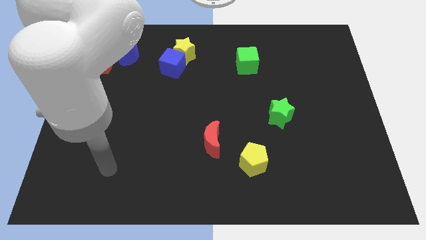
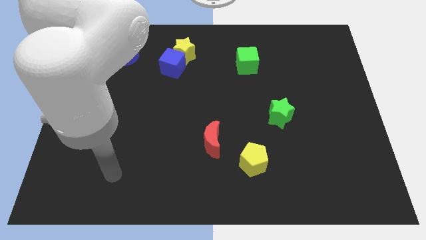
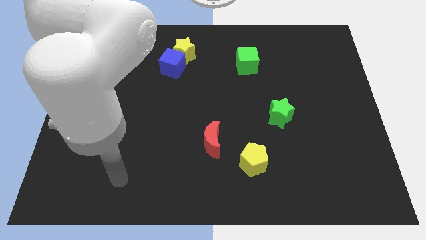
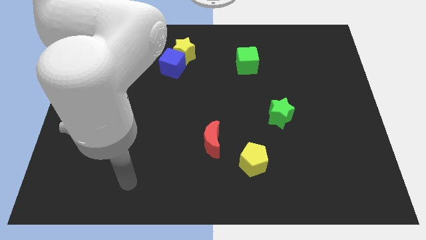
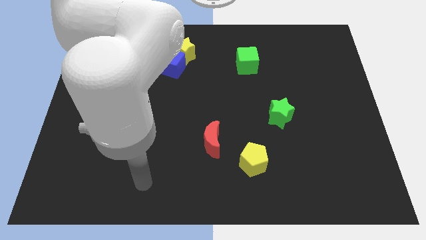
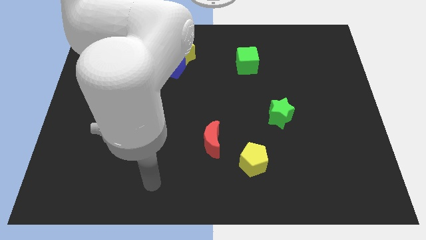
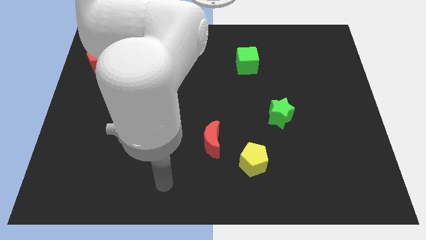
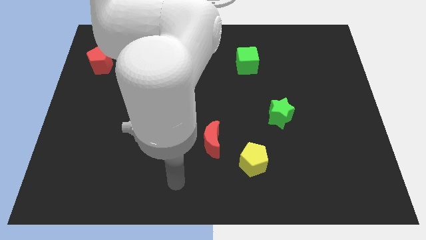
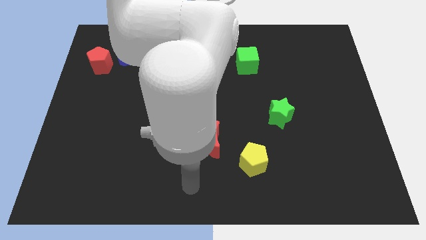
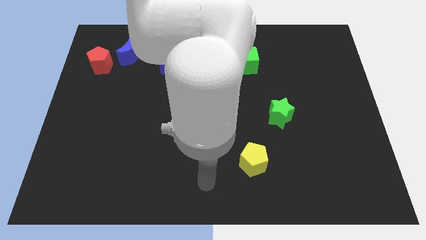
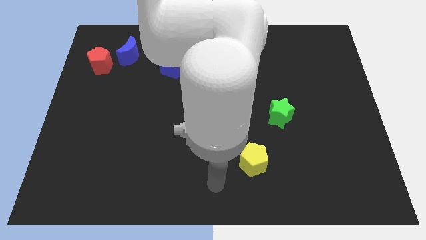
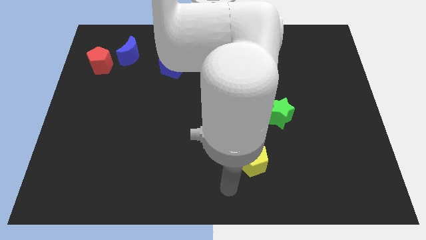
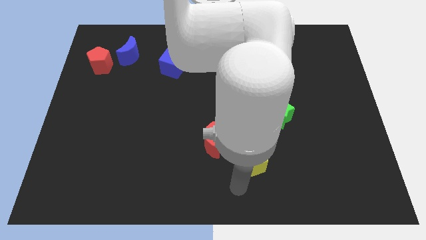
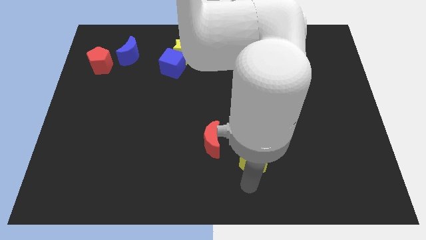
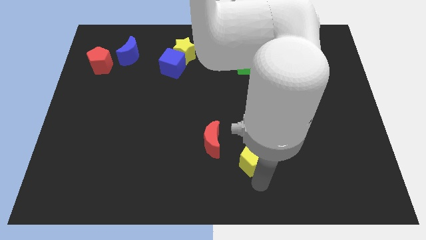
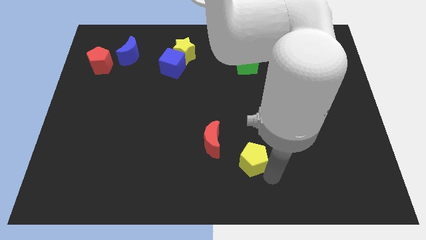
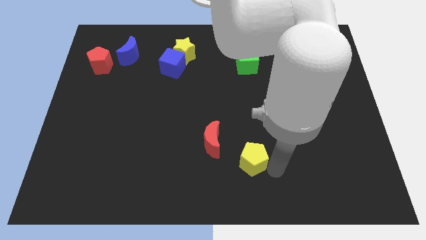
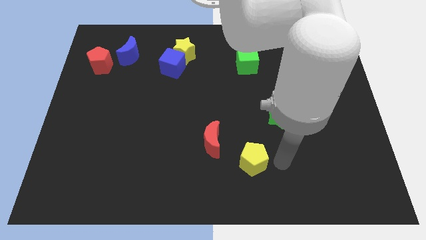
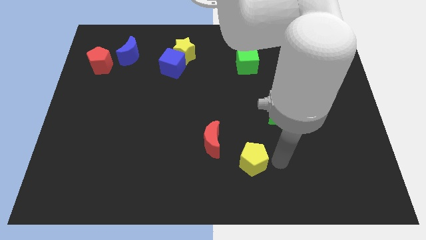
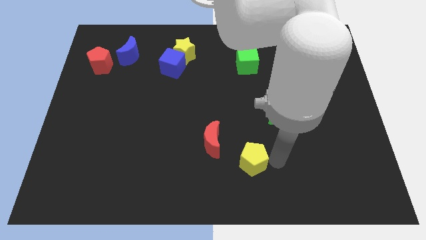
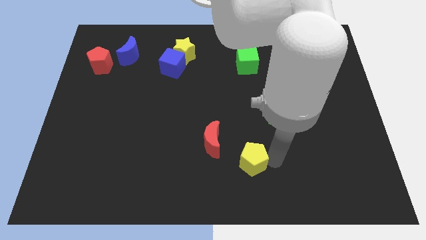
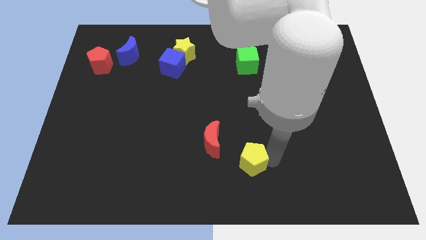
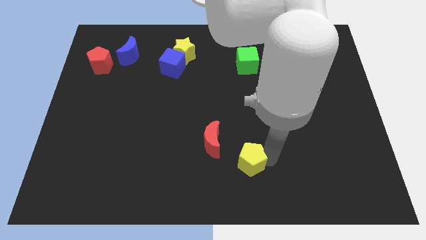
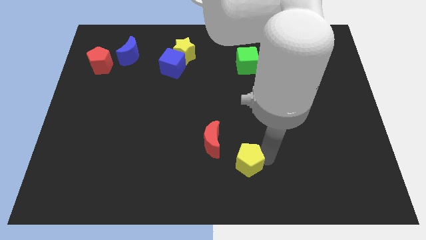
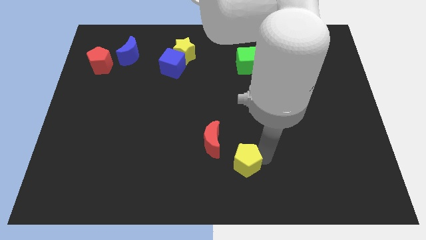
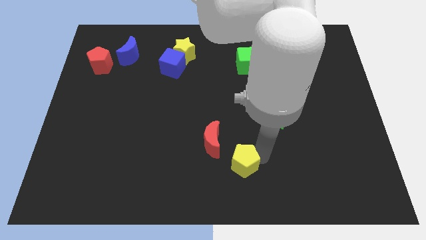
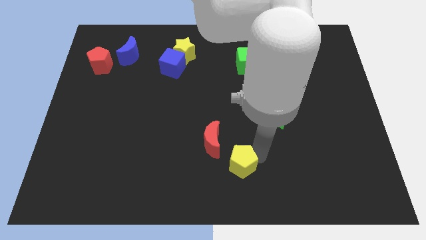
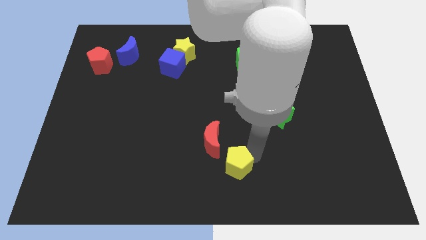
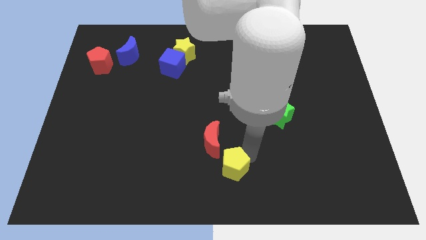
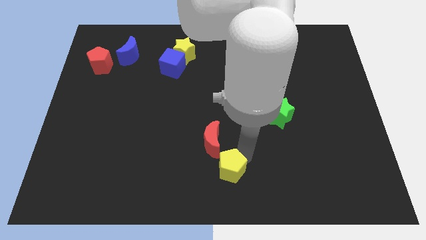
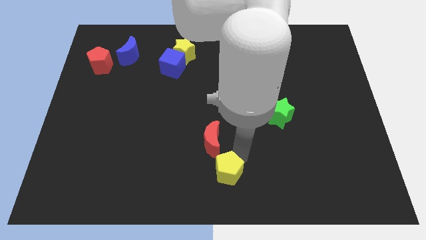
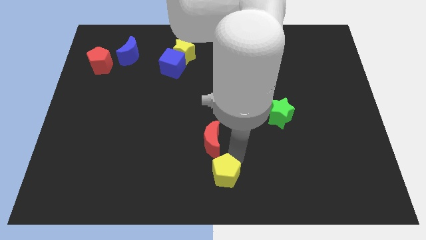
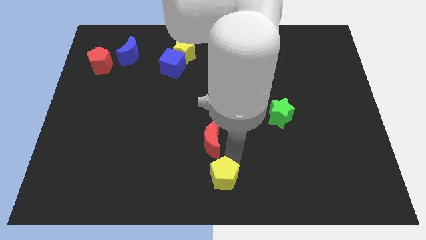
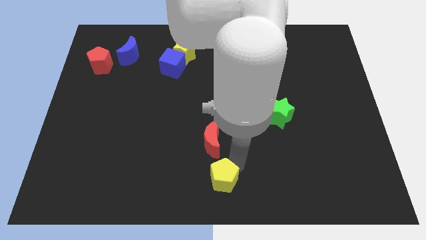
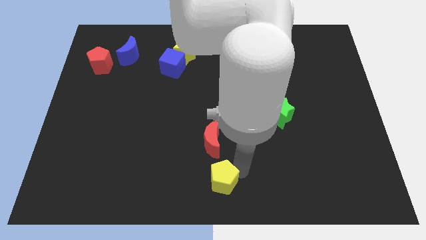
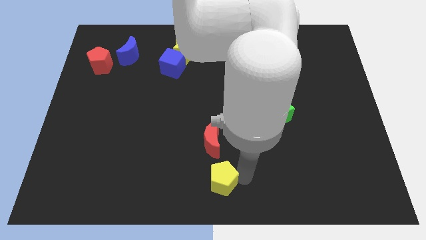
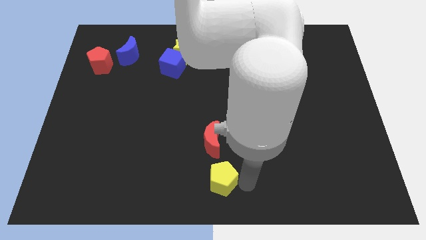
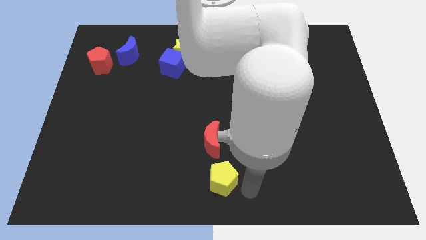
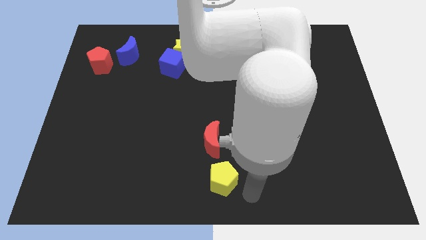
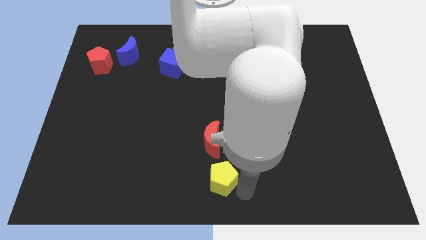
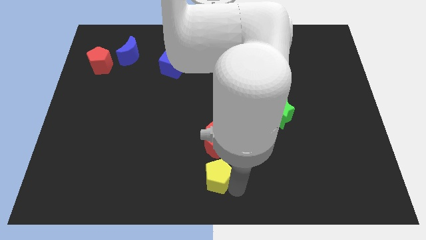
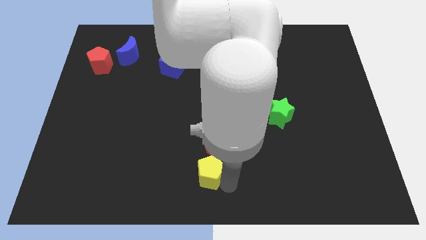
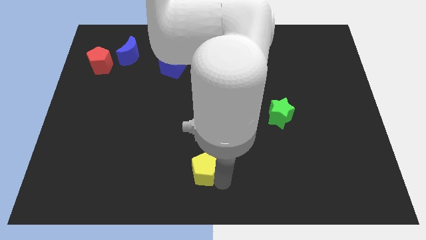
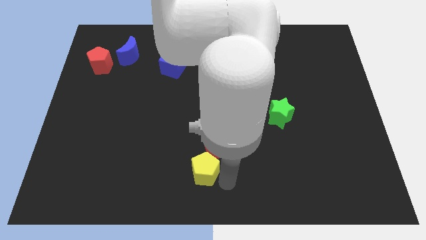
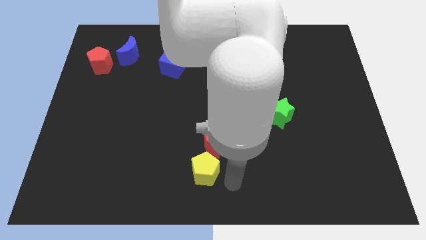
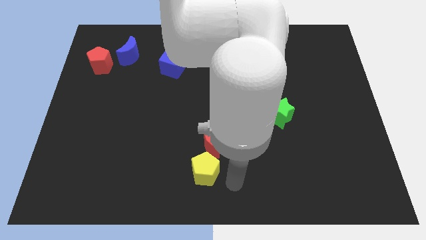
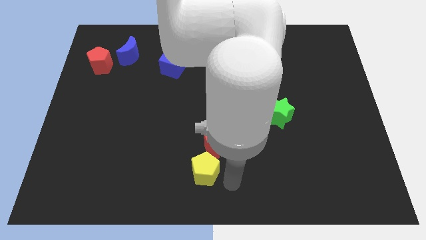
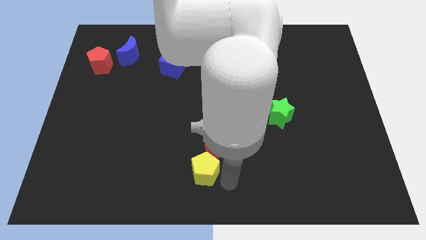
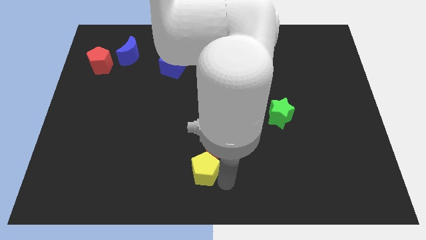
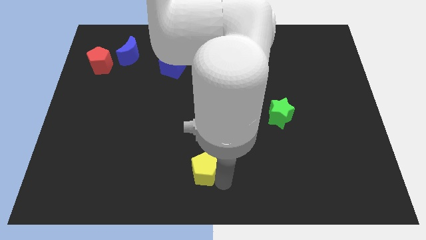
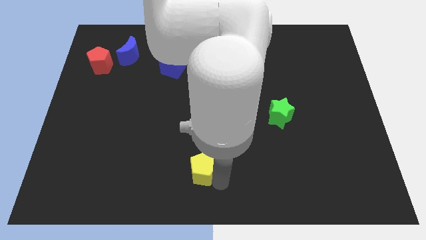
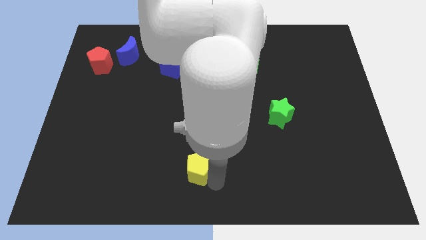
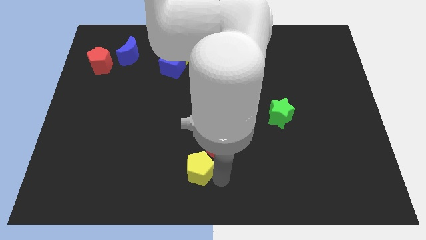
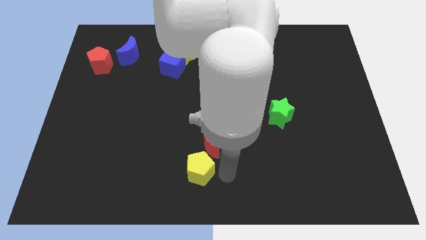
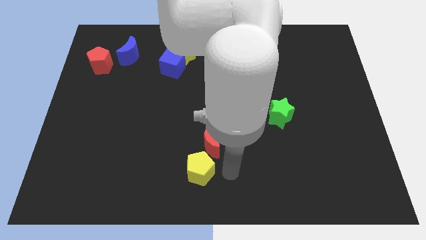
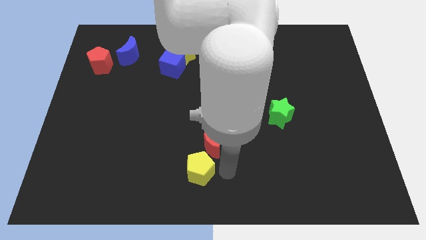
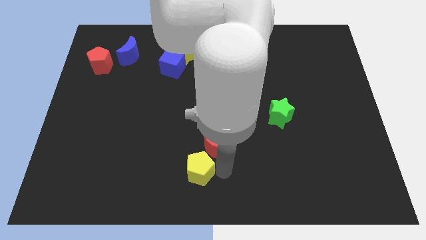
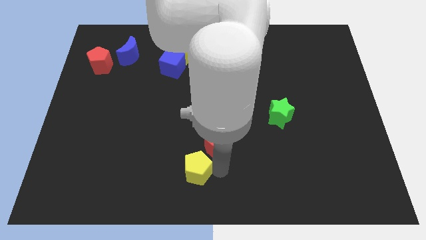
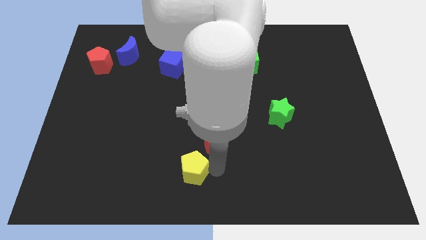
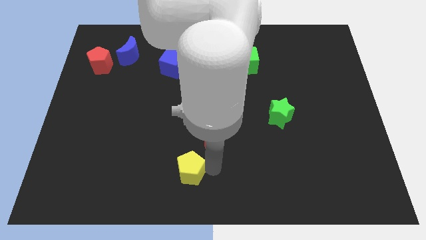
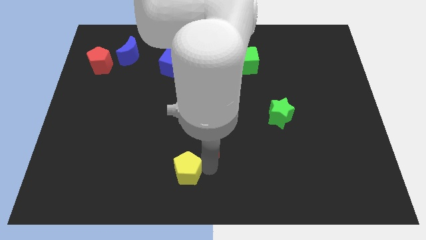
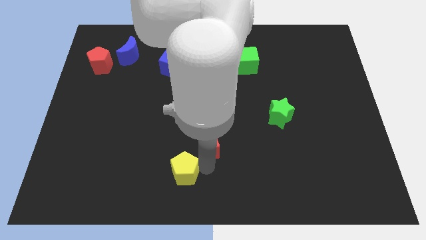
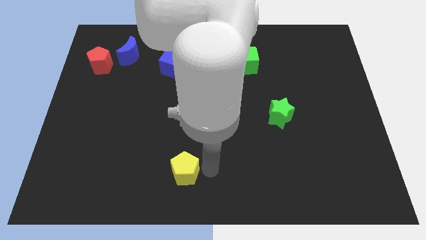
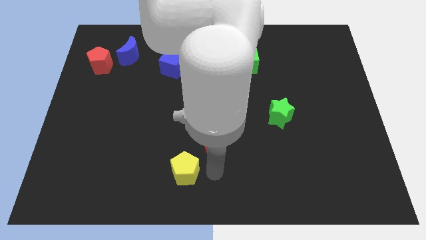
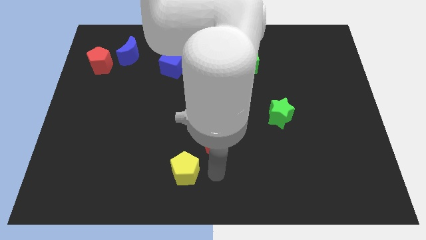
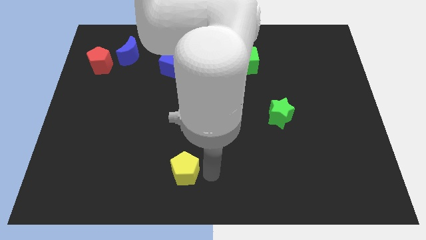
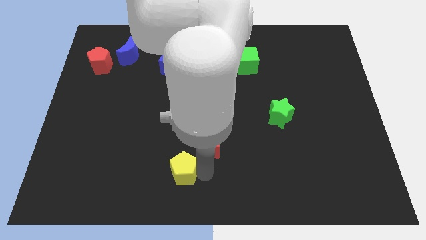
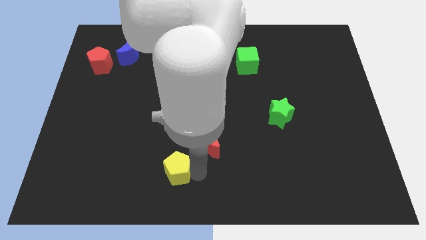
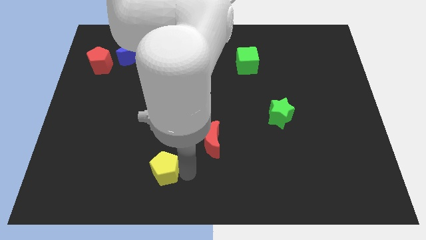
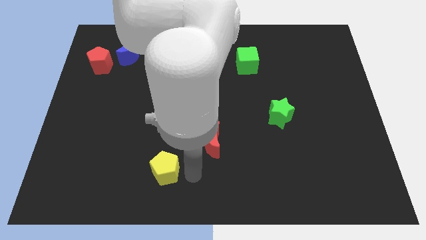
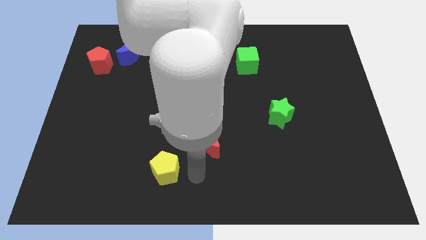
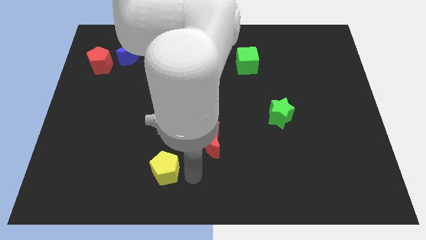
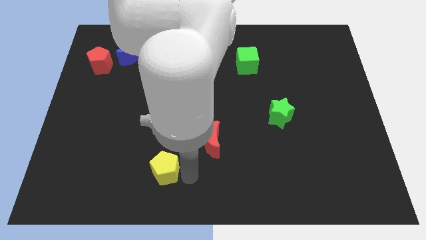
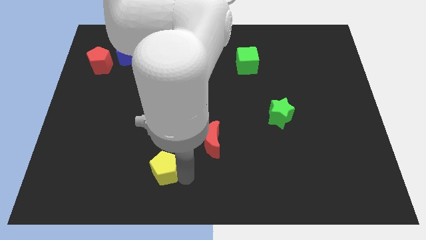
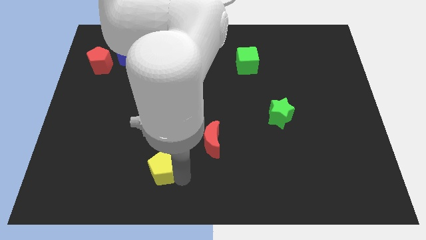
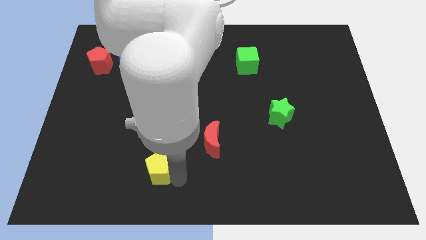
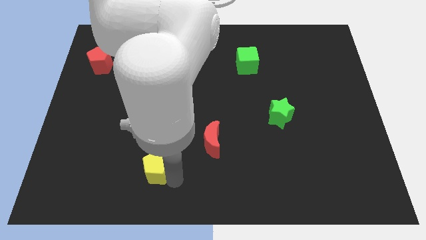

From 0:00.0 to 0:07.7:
push the yellow pentagon to the left
